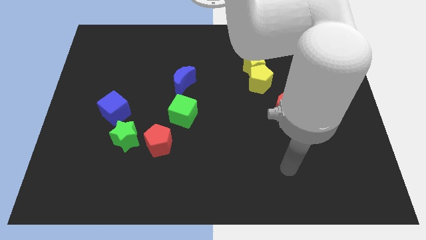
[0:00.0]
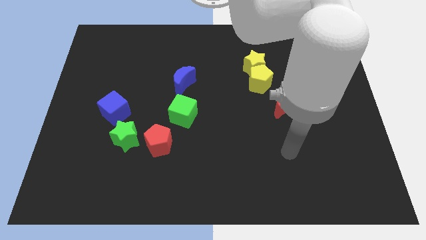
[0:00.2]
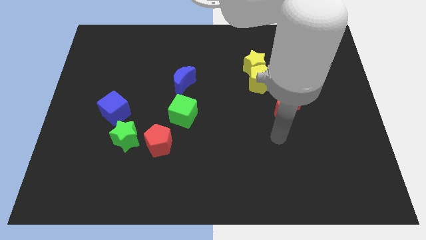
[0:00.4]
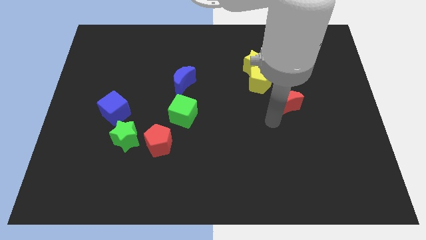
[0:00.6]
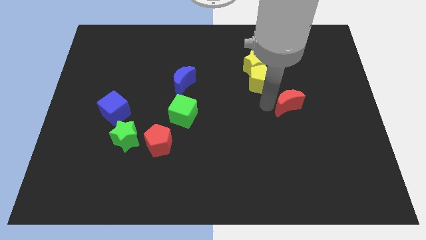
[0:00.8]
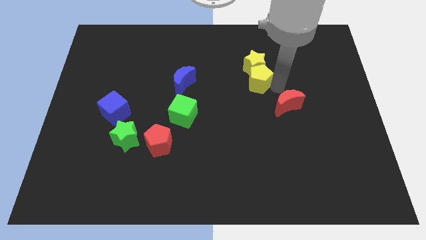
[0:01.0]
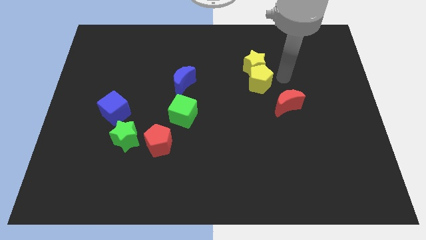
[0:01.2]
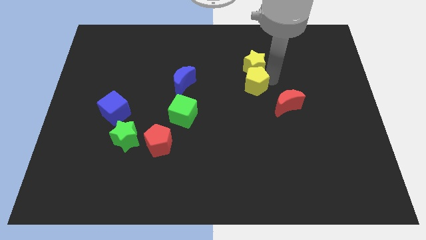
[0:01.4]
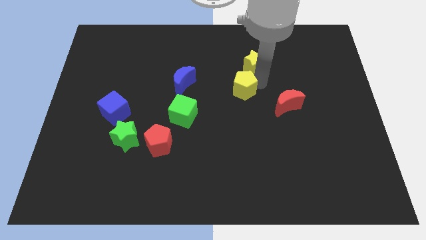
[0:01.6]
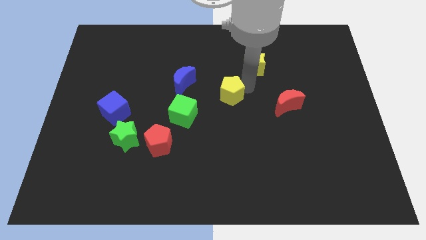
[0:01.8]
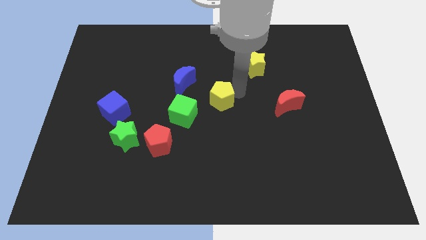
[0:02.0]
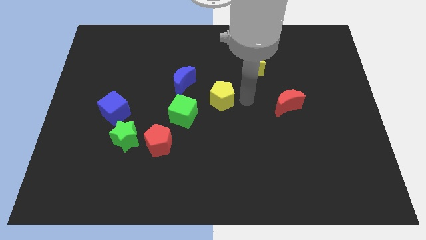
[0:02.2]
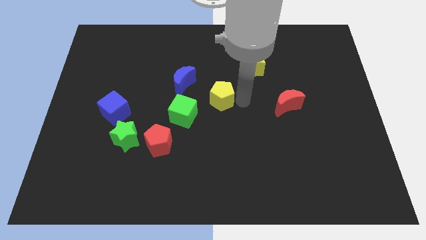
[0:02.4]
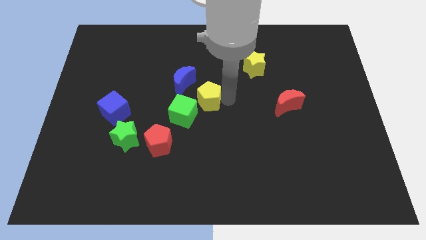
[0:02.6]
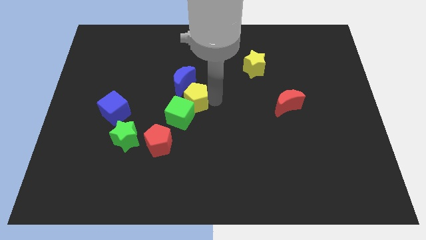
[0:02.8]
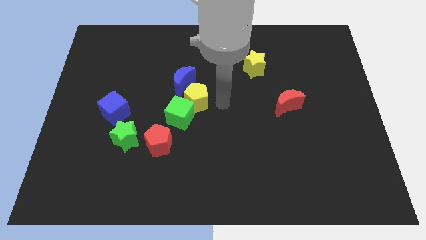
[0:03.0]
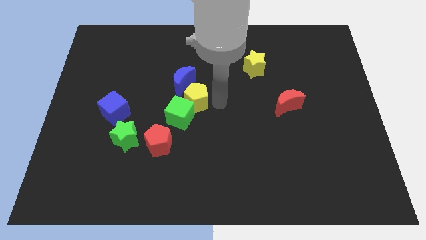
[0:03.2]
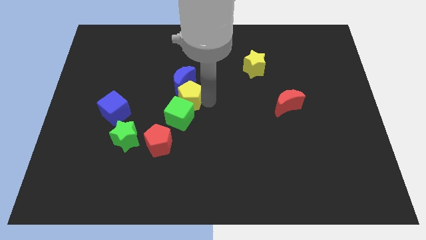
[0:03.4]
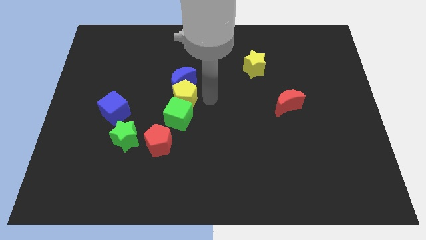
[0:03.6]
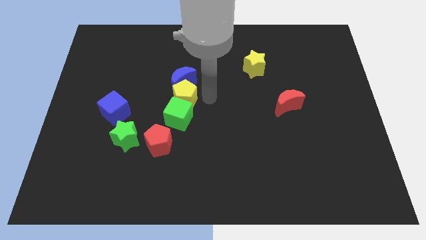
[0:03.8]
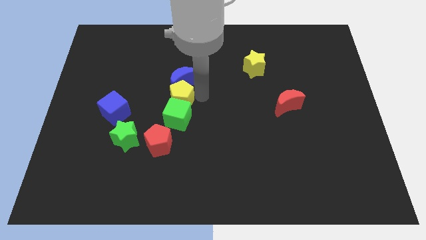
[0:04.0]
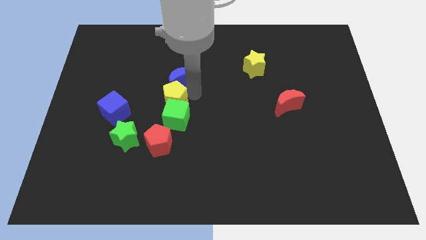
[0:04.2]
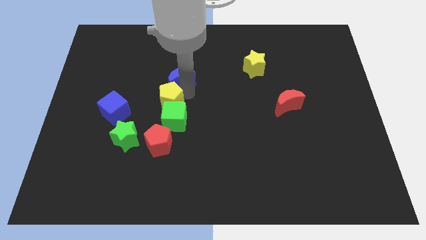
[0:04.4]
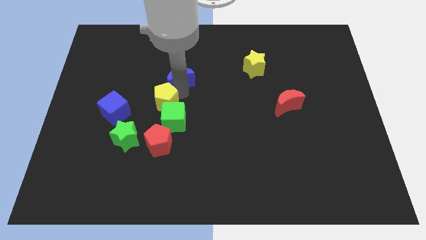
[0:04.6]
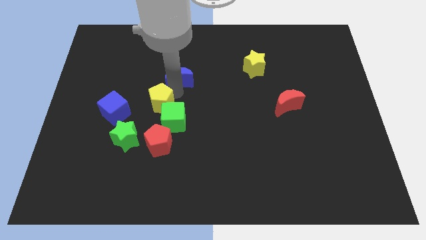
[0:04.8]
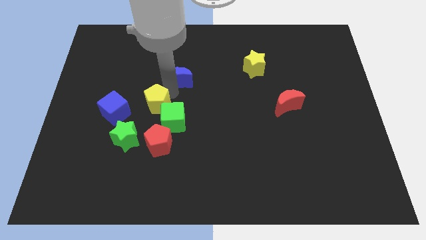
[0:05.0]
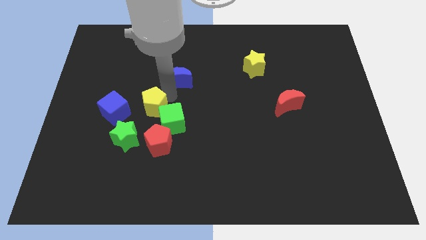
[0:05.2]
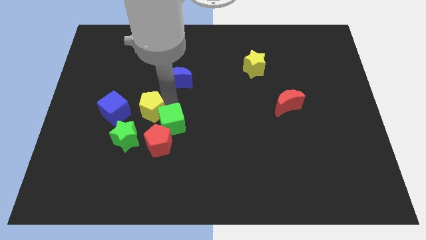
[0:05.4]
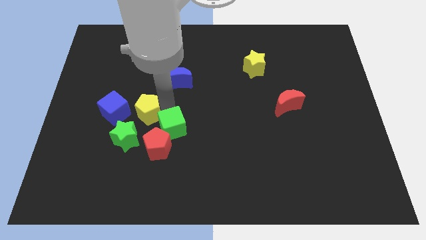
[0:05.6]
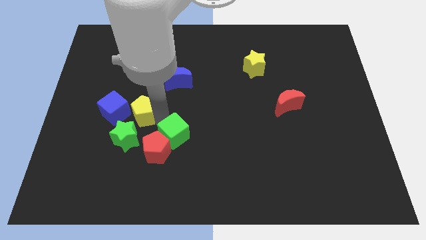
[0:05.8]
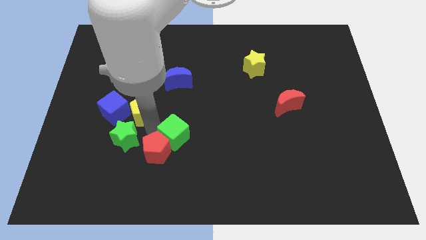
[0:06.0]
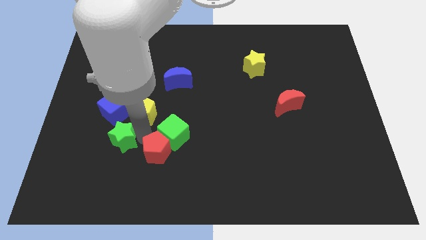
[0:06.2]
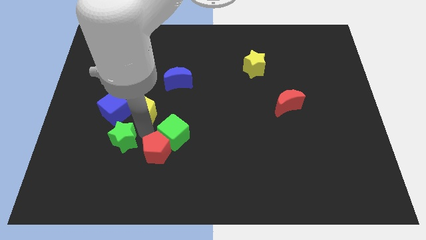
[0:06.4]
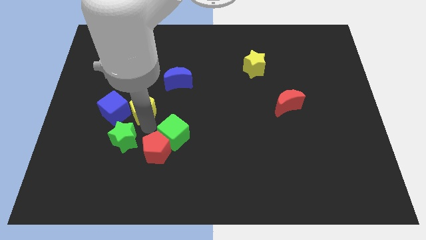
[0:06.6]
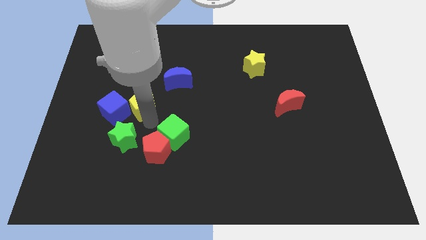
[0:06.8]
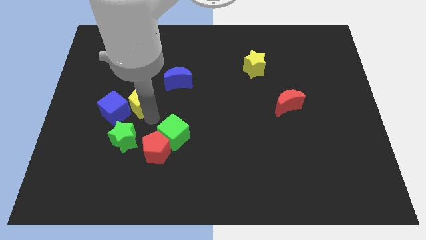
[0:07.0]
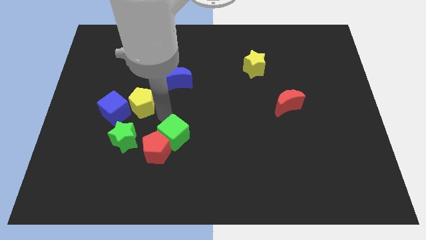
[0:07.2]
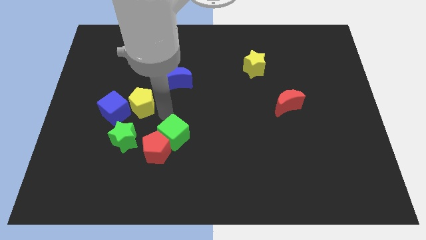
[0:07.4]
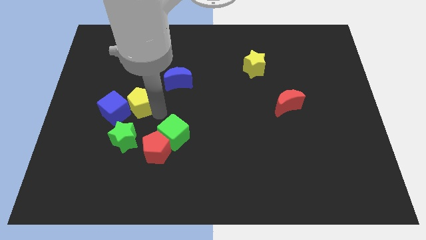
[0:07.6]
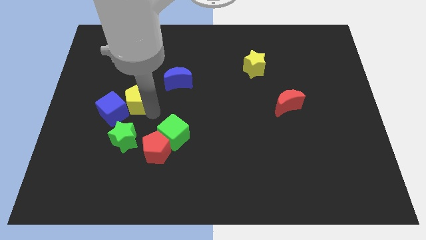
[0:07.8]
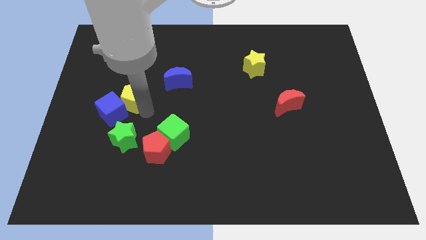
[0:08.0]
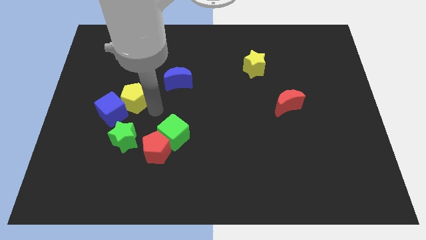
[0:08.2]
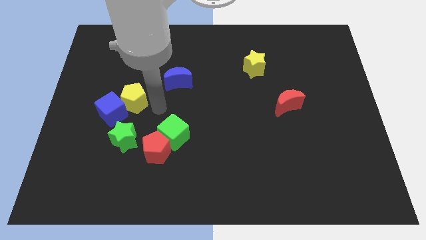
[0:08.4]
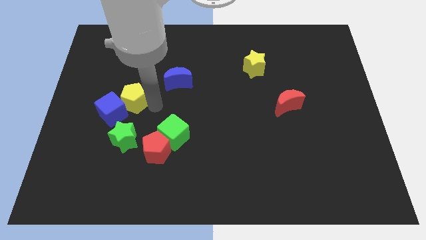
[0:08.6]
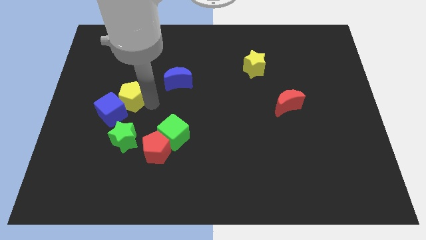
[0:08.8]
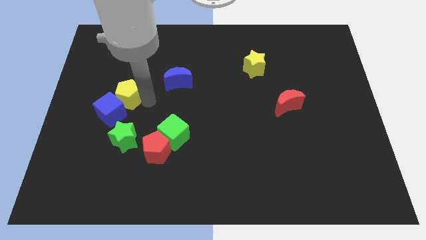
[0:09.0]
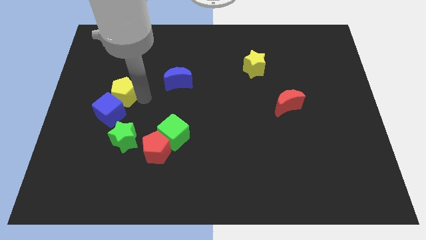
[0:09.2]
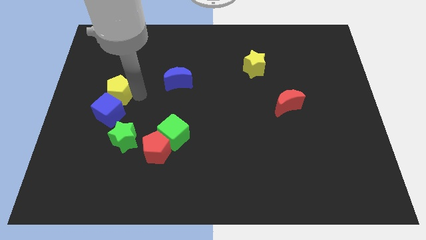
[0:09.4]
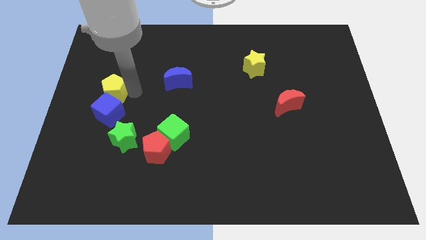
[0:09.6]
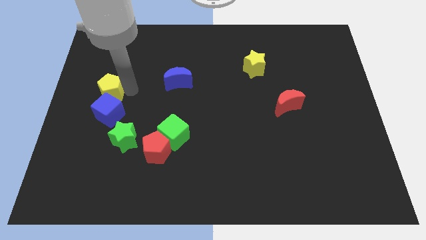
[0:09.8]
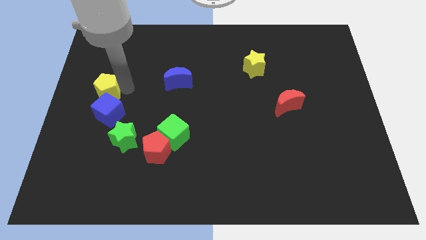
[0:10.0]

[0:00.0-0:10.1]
put the yellow pentagon to the center left

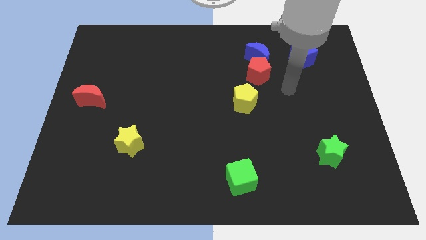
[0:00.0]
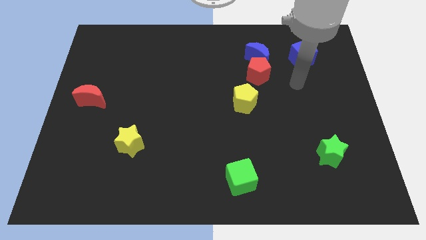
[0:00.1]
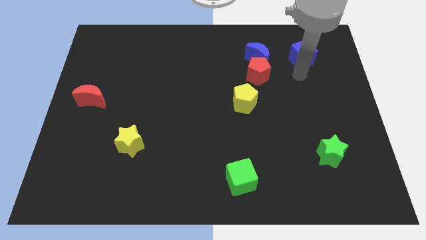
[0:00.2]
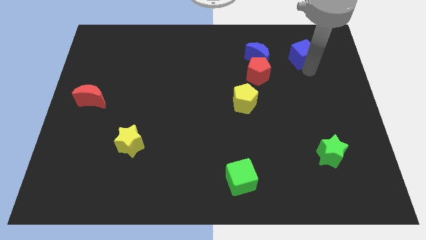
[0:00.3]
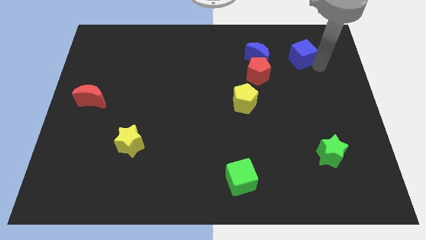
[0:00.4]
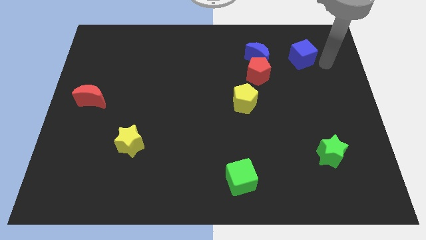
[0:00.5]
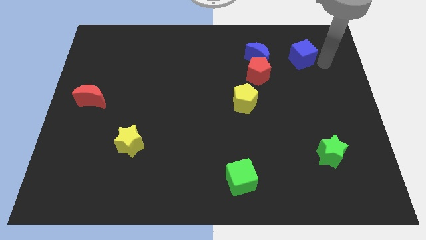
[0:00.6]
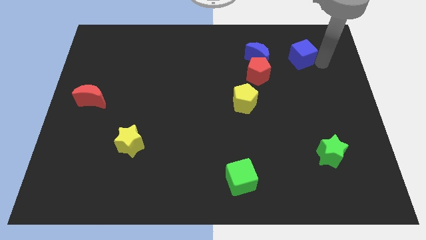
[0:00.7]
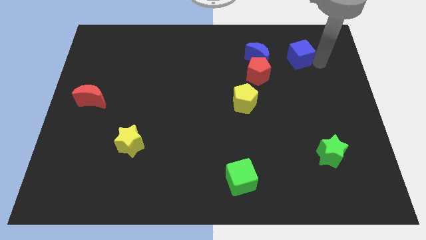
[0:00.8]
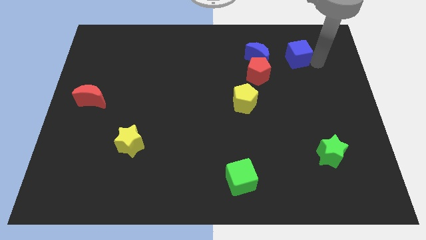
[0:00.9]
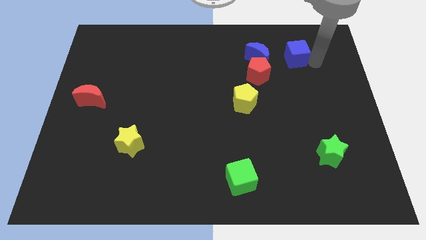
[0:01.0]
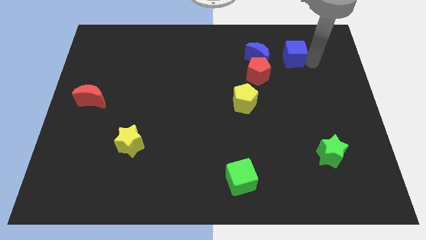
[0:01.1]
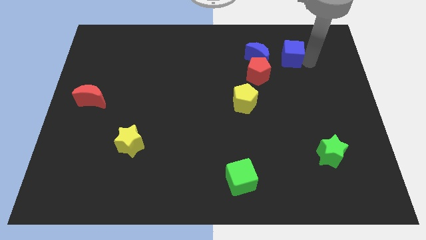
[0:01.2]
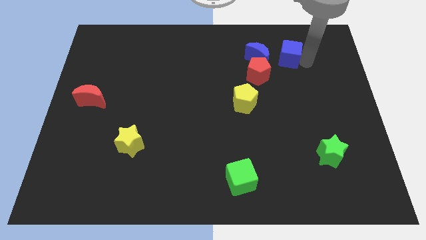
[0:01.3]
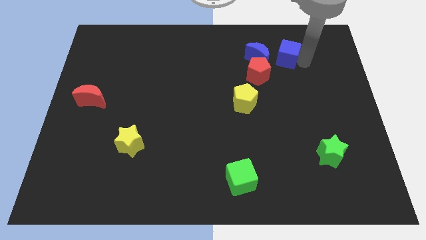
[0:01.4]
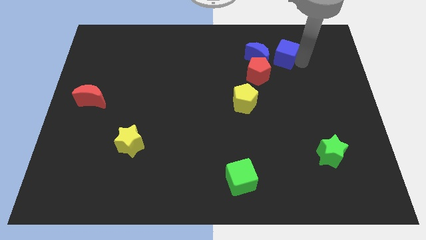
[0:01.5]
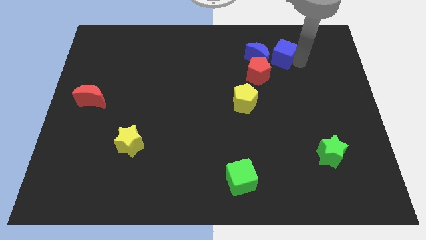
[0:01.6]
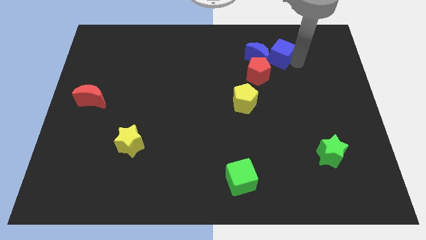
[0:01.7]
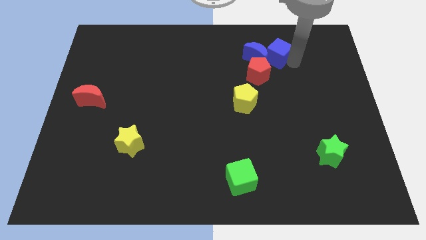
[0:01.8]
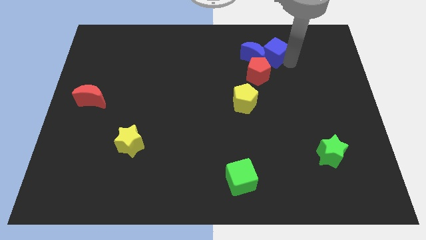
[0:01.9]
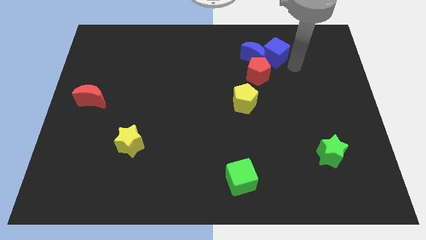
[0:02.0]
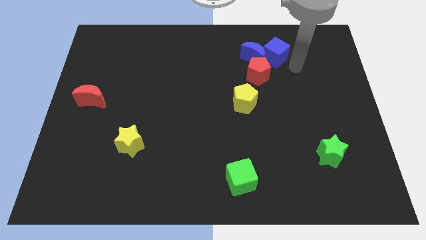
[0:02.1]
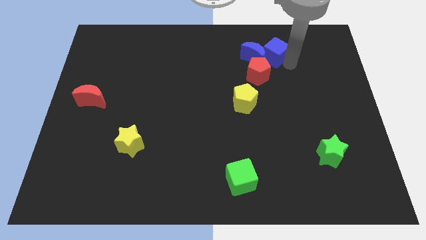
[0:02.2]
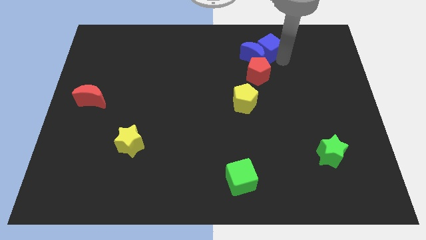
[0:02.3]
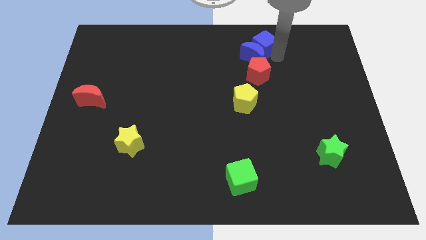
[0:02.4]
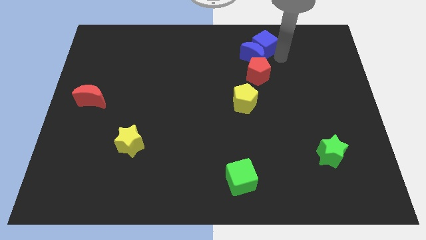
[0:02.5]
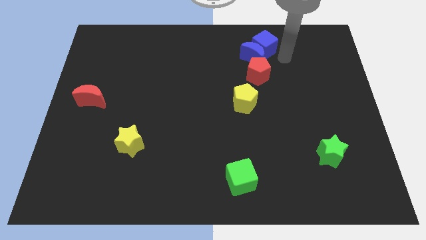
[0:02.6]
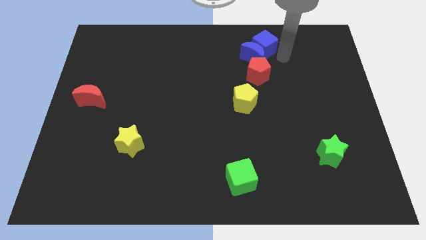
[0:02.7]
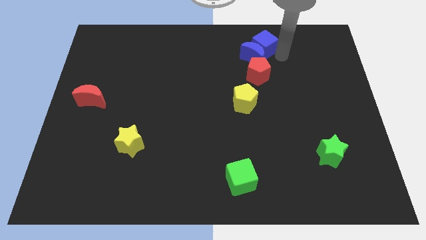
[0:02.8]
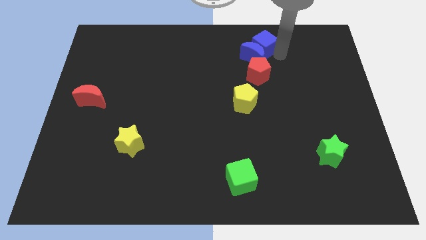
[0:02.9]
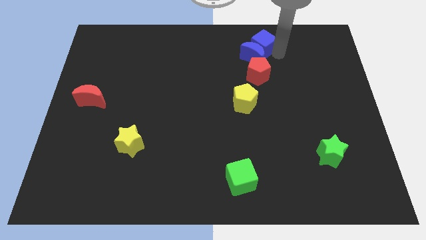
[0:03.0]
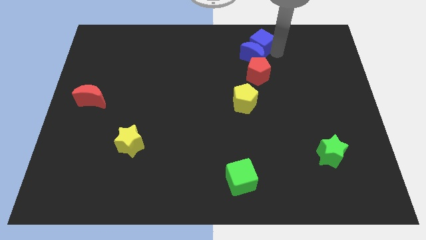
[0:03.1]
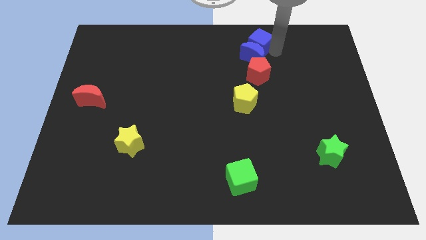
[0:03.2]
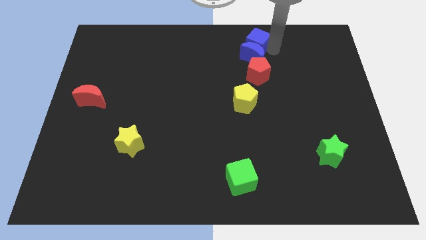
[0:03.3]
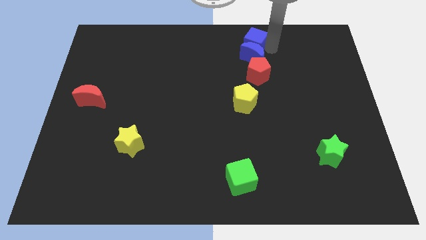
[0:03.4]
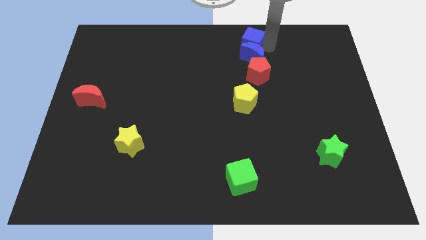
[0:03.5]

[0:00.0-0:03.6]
slide the blue cube to the towards your base
